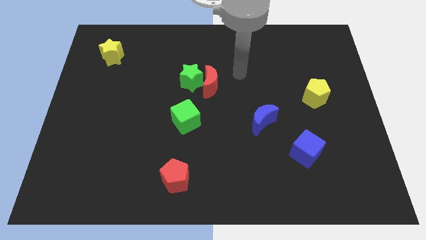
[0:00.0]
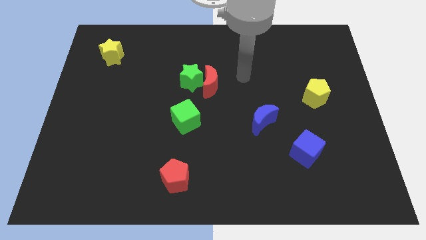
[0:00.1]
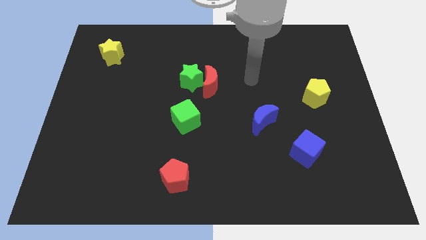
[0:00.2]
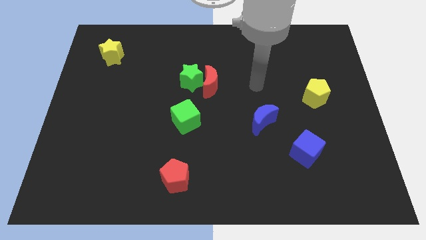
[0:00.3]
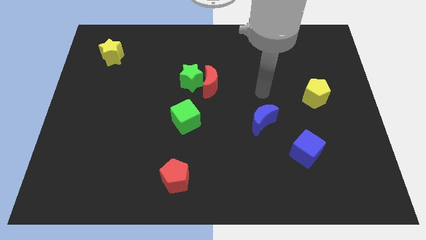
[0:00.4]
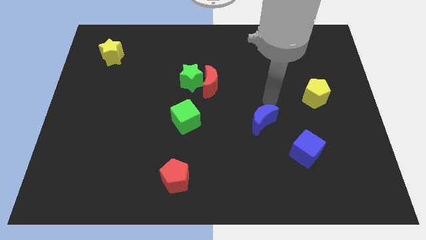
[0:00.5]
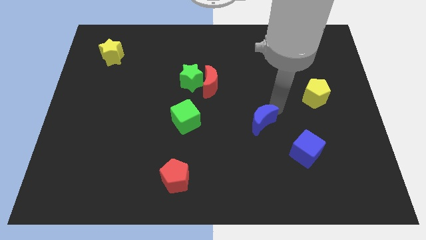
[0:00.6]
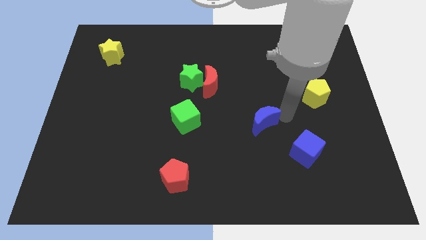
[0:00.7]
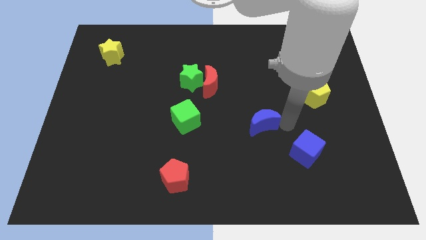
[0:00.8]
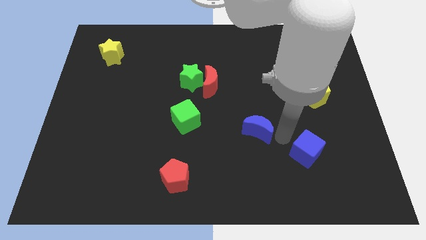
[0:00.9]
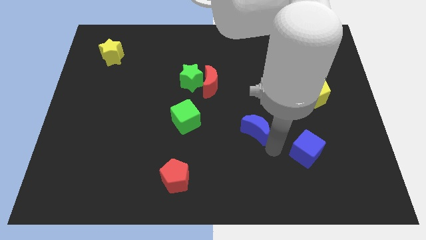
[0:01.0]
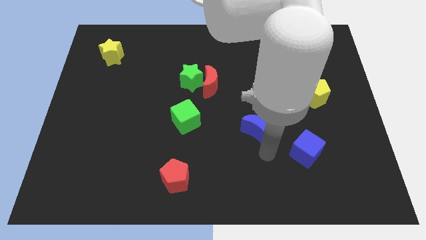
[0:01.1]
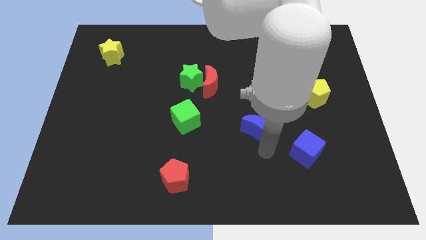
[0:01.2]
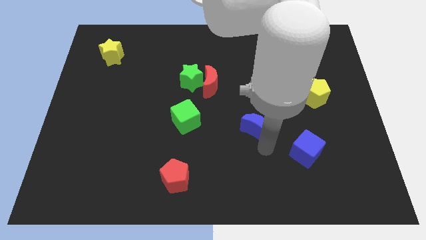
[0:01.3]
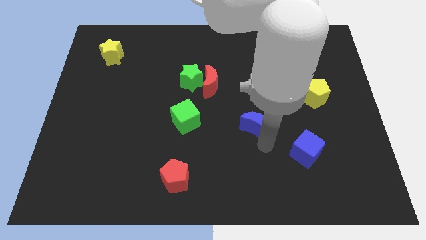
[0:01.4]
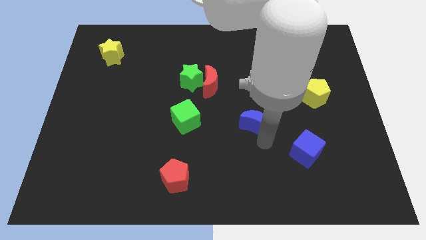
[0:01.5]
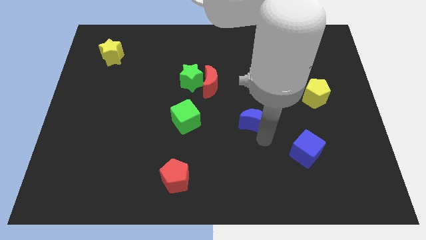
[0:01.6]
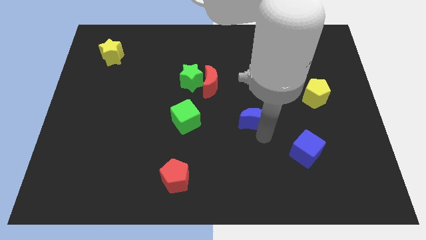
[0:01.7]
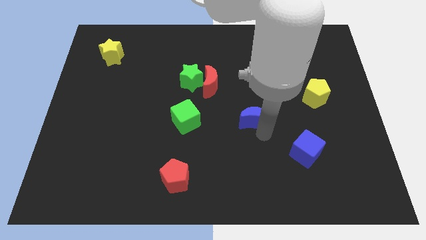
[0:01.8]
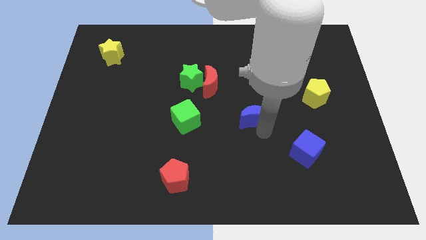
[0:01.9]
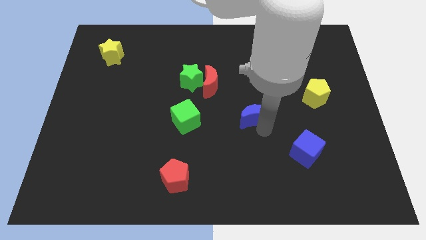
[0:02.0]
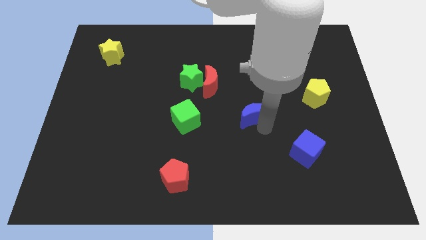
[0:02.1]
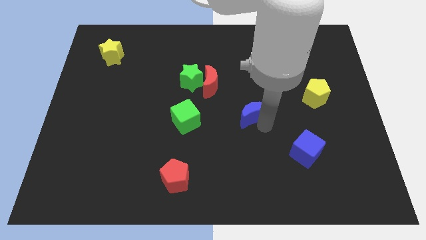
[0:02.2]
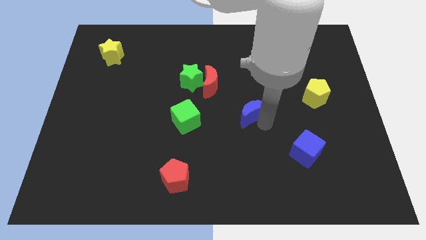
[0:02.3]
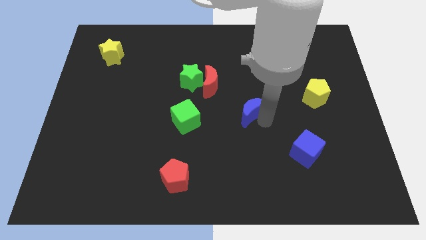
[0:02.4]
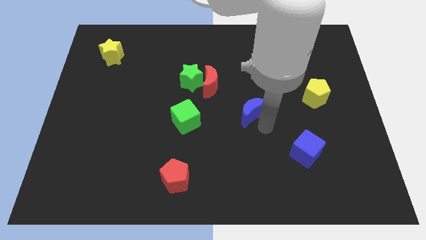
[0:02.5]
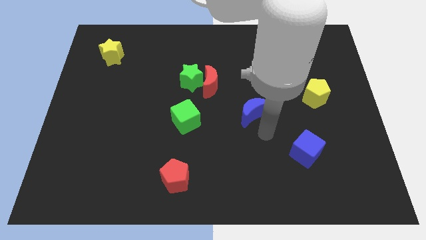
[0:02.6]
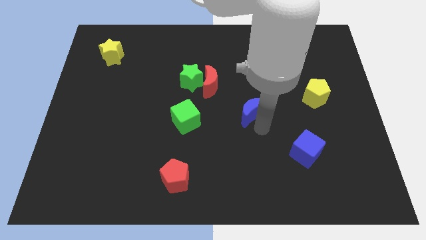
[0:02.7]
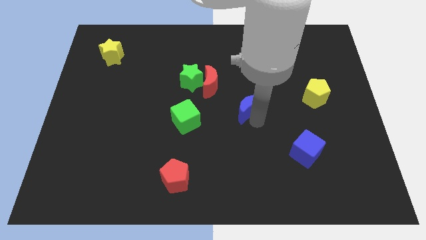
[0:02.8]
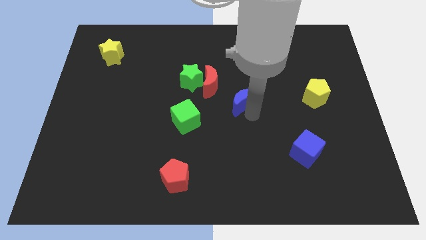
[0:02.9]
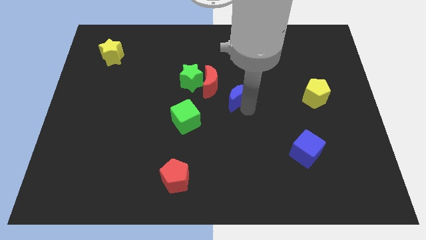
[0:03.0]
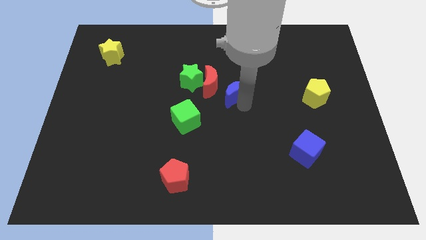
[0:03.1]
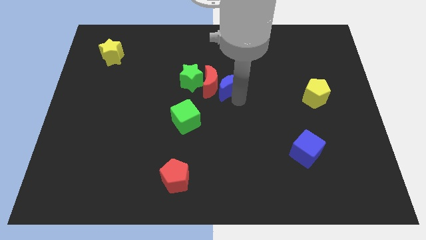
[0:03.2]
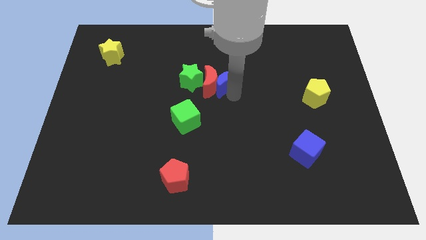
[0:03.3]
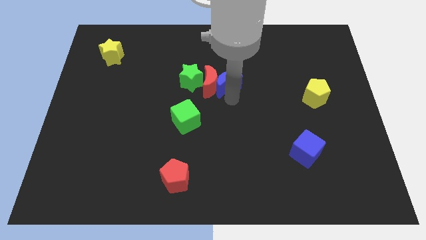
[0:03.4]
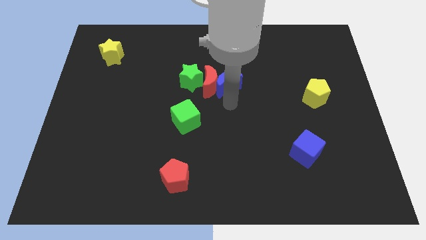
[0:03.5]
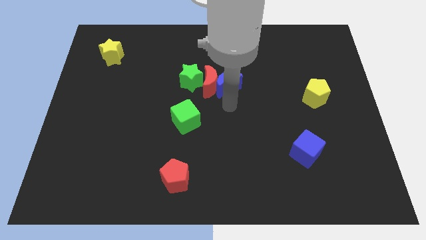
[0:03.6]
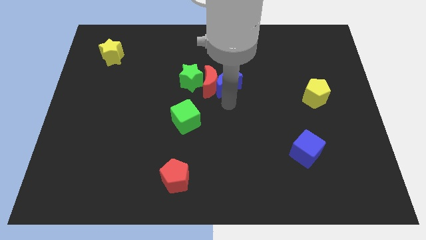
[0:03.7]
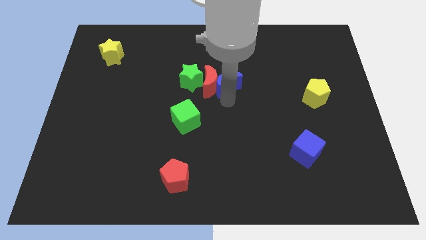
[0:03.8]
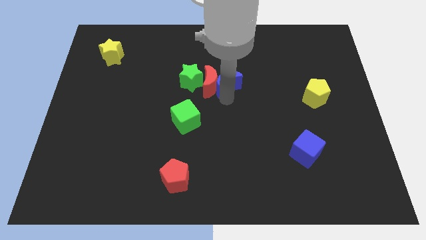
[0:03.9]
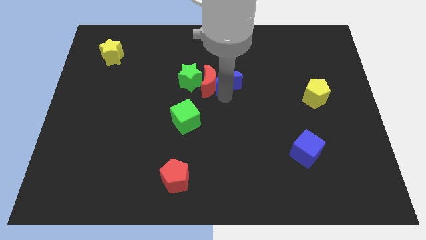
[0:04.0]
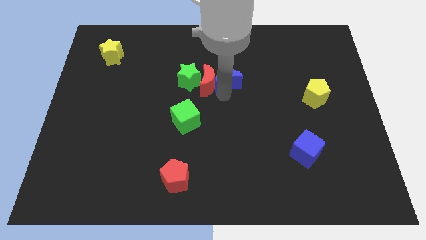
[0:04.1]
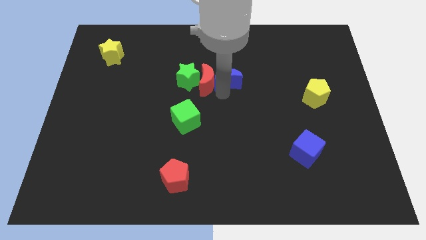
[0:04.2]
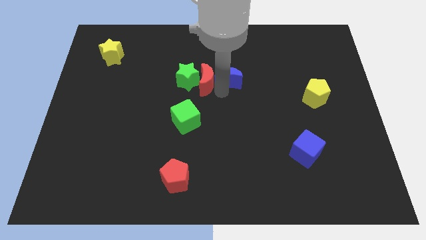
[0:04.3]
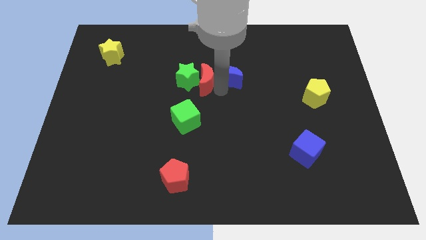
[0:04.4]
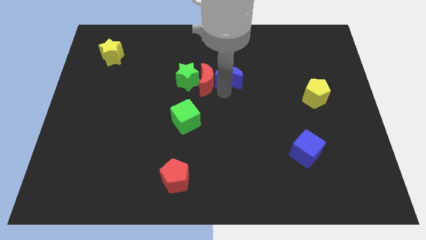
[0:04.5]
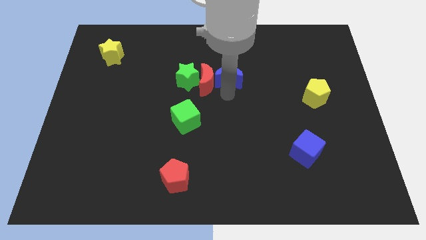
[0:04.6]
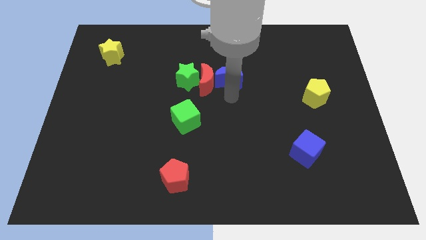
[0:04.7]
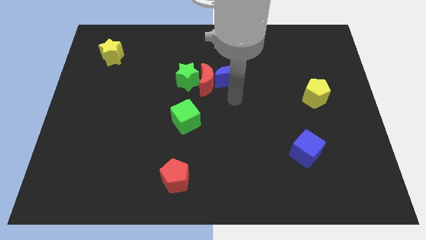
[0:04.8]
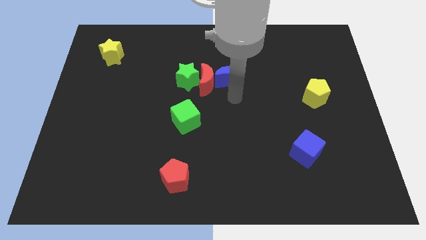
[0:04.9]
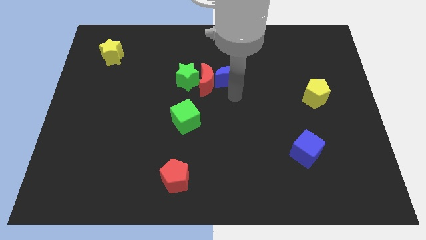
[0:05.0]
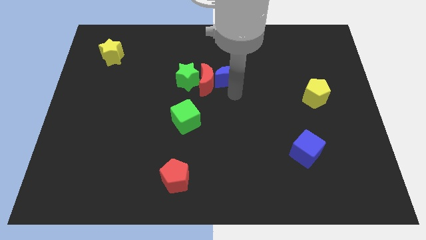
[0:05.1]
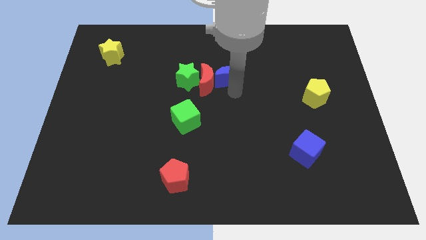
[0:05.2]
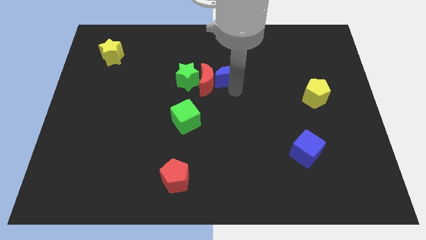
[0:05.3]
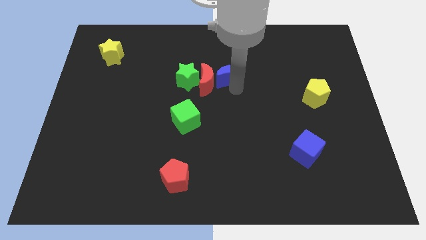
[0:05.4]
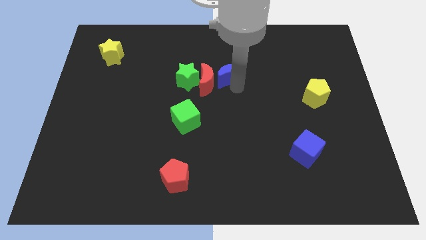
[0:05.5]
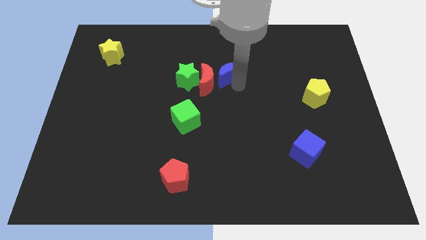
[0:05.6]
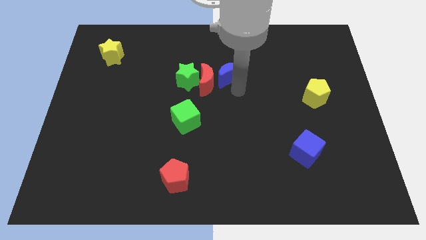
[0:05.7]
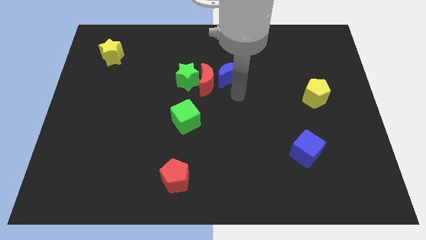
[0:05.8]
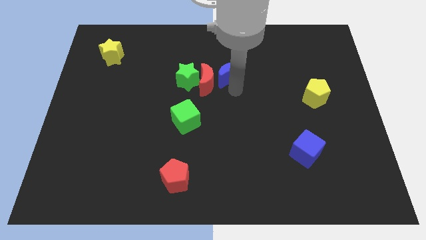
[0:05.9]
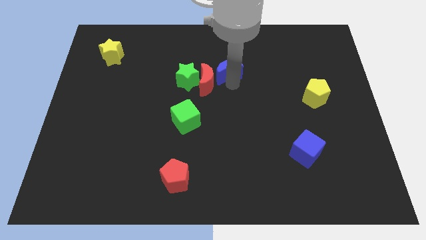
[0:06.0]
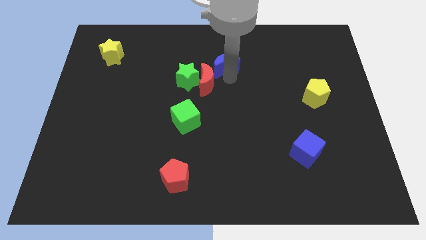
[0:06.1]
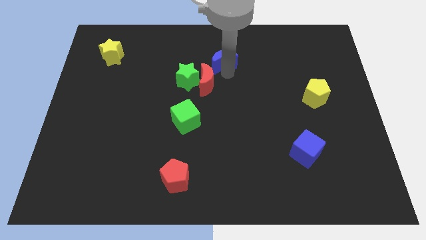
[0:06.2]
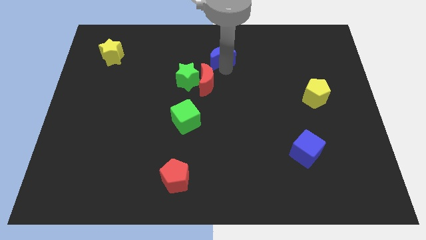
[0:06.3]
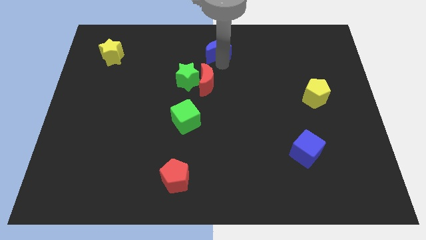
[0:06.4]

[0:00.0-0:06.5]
slide the blue moon to the top

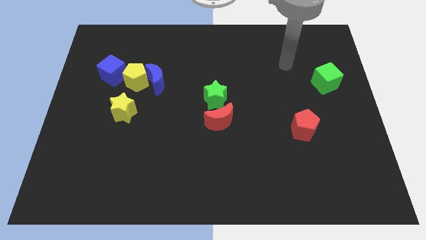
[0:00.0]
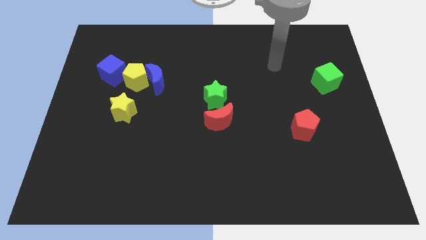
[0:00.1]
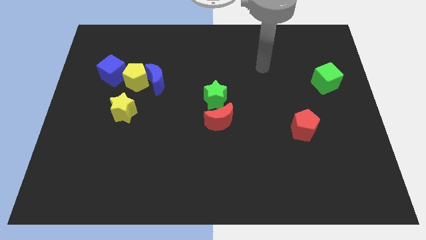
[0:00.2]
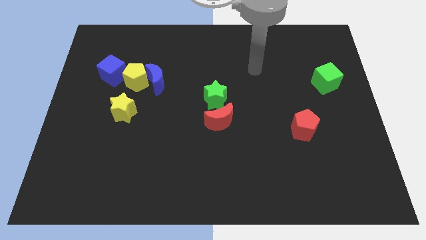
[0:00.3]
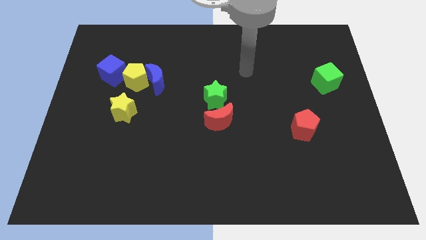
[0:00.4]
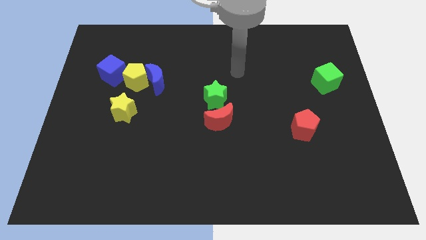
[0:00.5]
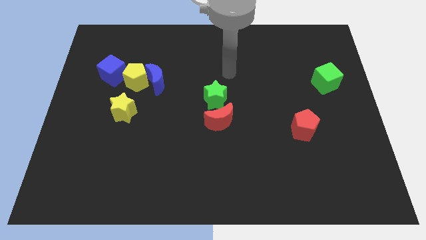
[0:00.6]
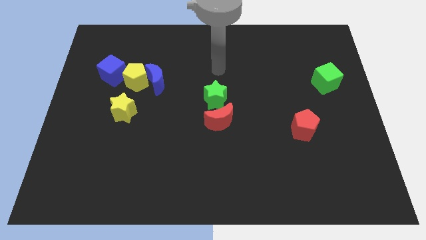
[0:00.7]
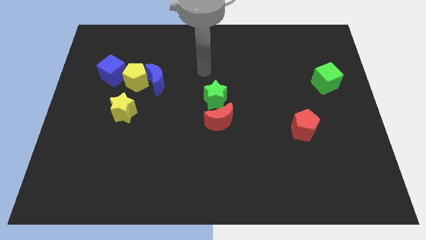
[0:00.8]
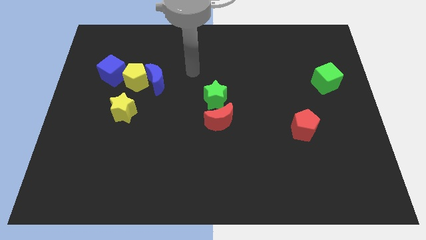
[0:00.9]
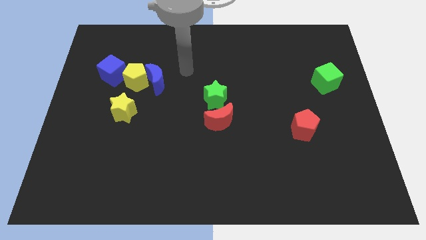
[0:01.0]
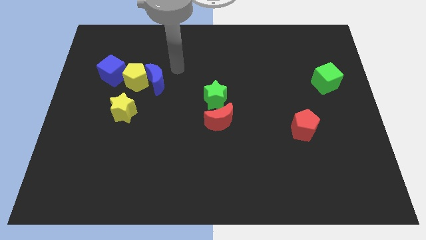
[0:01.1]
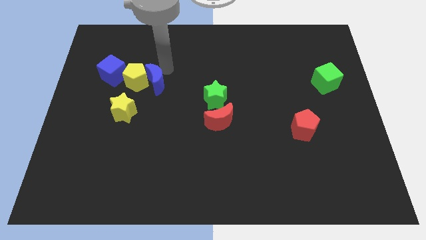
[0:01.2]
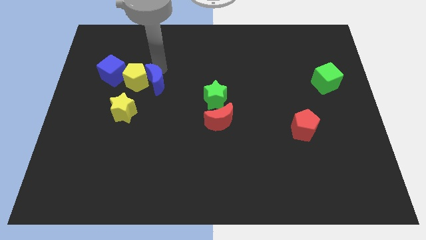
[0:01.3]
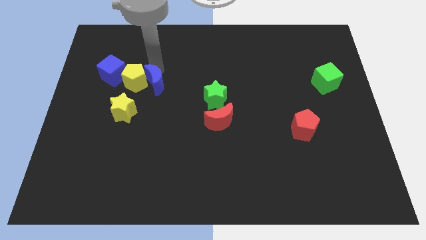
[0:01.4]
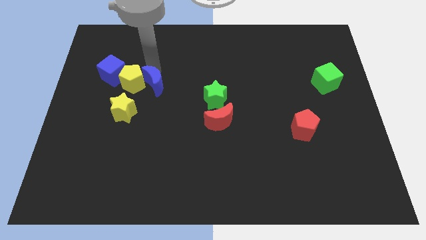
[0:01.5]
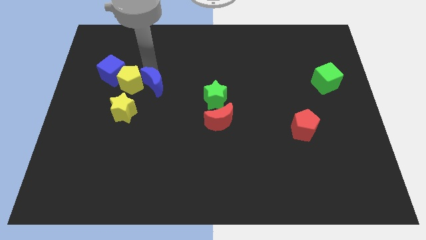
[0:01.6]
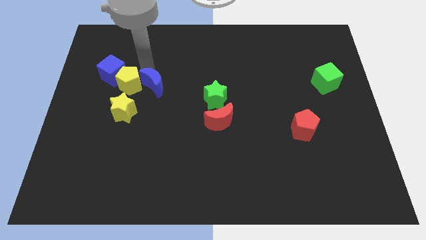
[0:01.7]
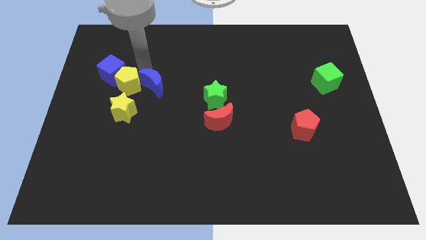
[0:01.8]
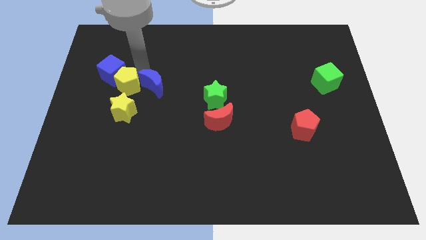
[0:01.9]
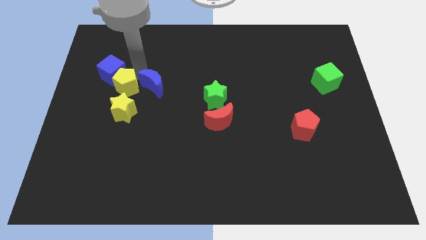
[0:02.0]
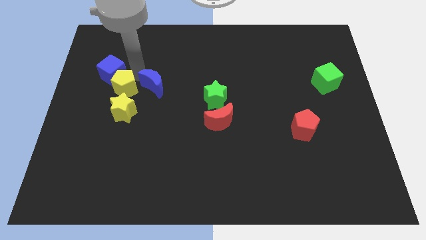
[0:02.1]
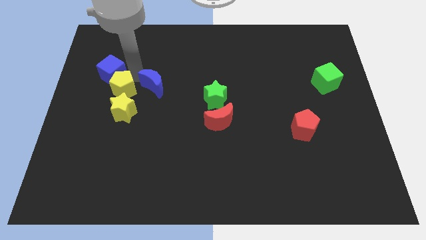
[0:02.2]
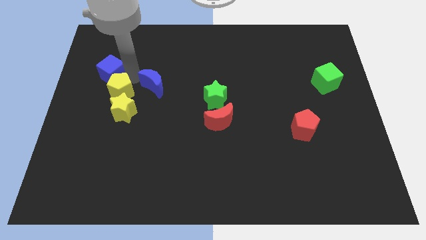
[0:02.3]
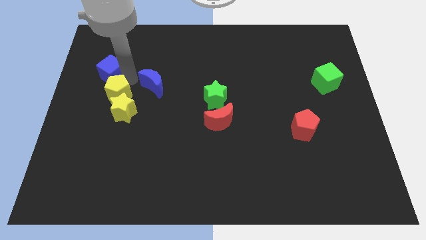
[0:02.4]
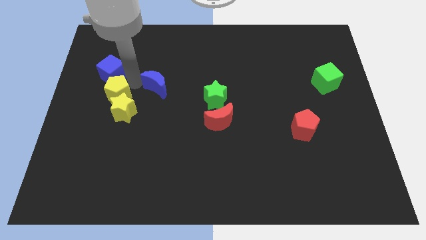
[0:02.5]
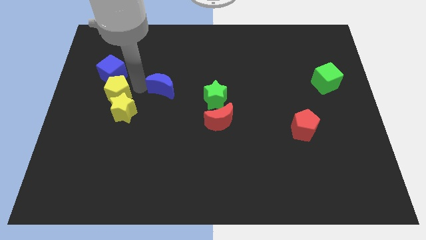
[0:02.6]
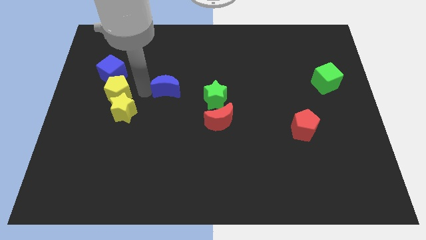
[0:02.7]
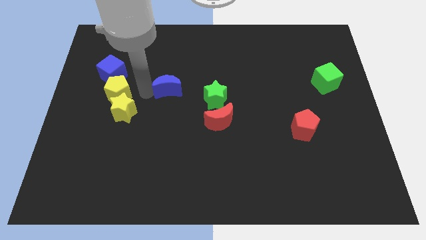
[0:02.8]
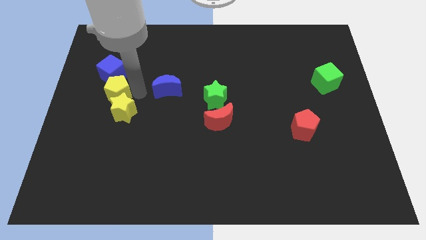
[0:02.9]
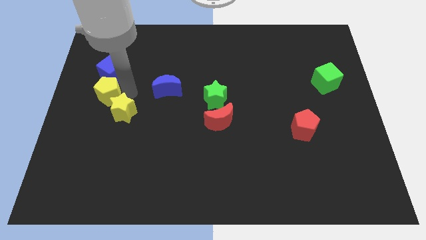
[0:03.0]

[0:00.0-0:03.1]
slide the yellow pentagon to the center left
